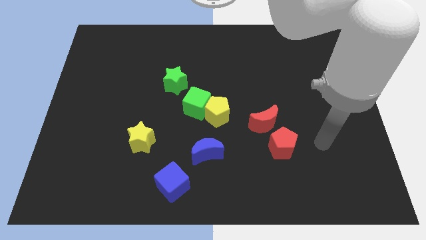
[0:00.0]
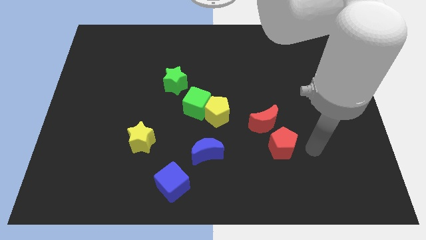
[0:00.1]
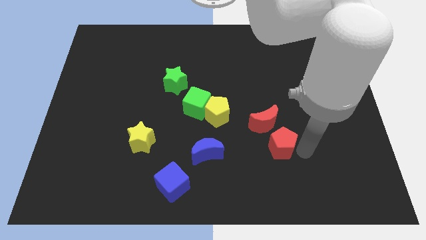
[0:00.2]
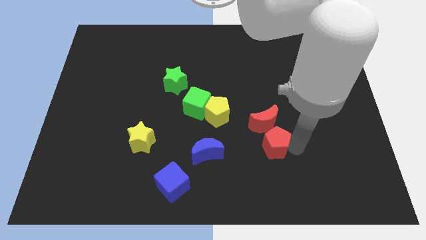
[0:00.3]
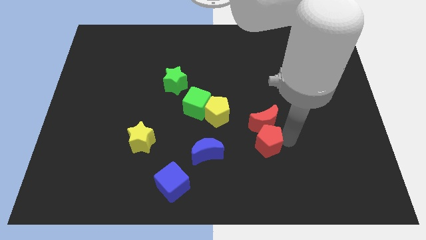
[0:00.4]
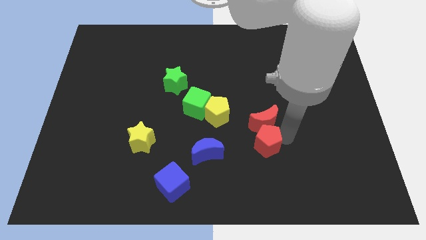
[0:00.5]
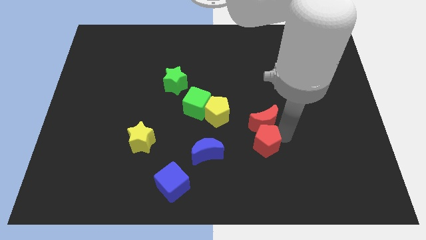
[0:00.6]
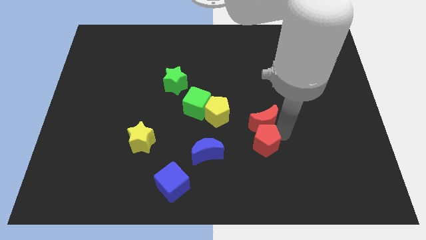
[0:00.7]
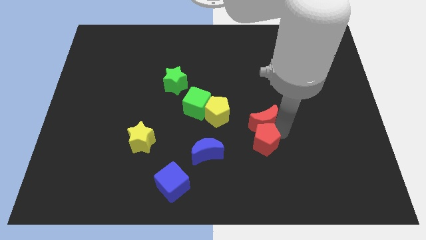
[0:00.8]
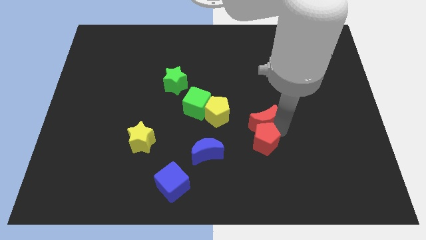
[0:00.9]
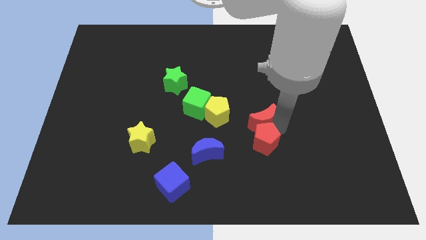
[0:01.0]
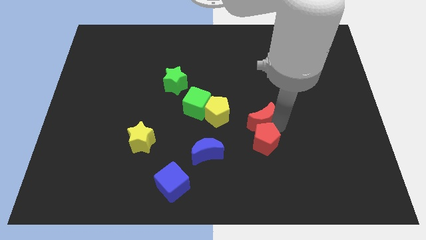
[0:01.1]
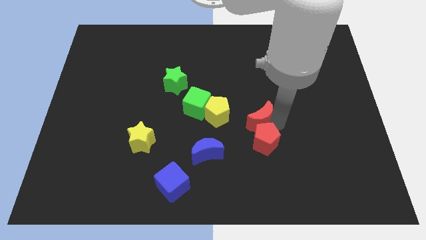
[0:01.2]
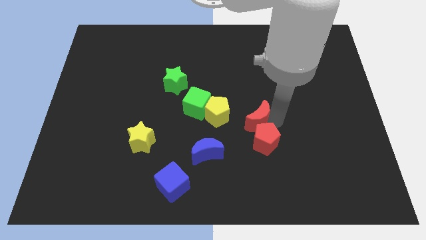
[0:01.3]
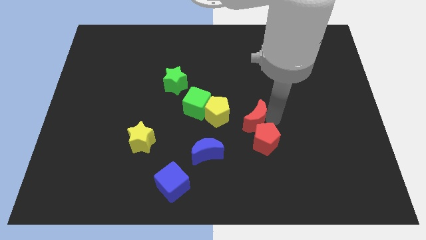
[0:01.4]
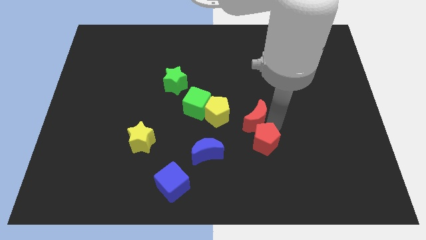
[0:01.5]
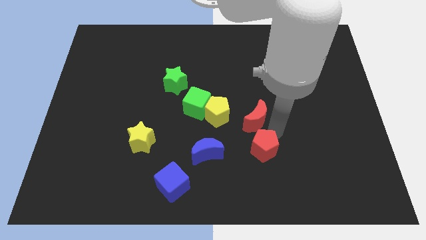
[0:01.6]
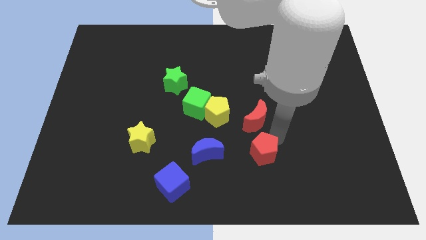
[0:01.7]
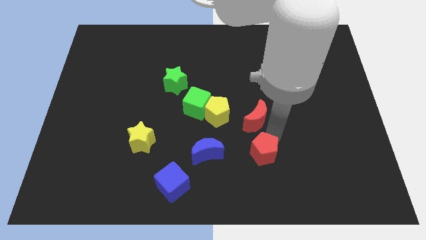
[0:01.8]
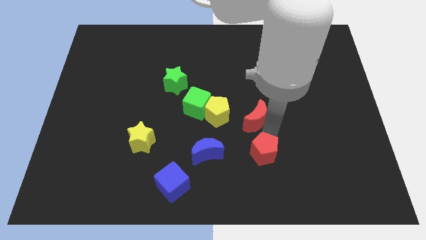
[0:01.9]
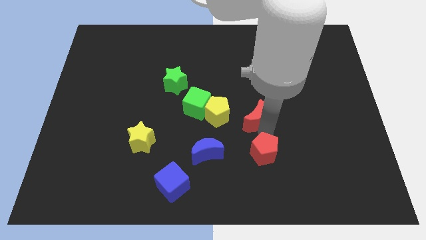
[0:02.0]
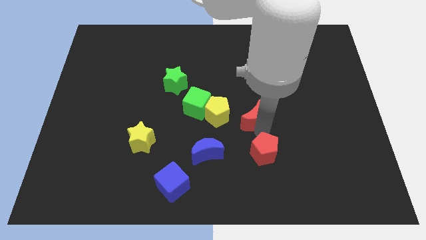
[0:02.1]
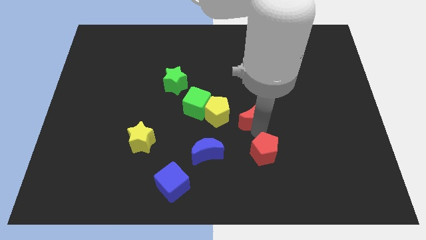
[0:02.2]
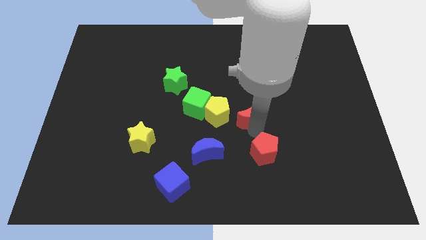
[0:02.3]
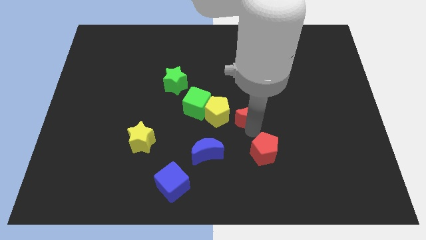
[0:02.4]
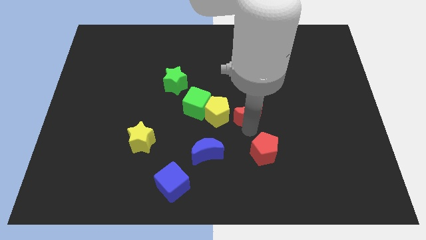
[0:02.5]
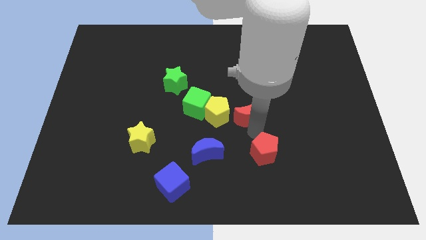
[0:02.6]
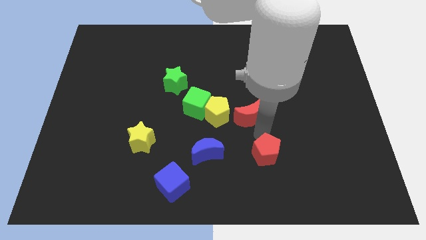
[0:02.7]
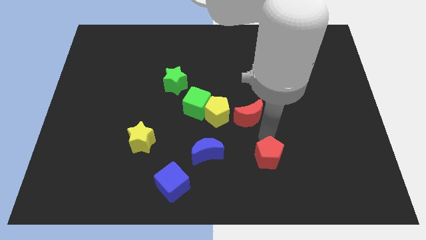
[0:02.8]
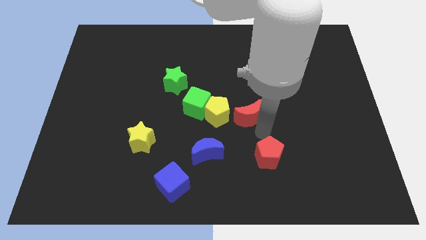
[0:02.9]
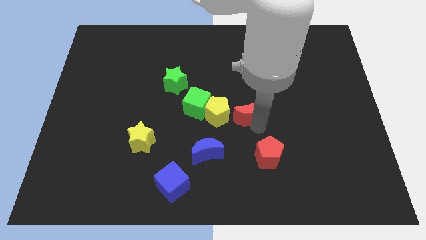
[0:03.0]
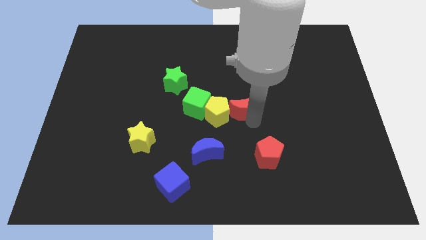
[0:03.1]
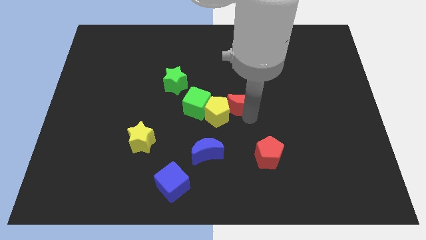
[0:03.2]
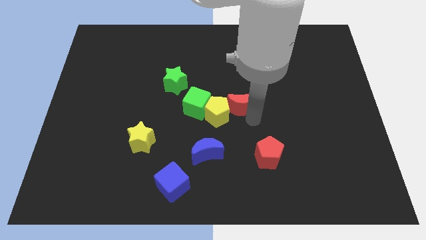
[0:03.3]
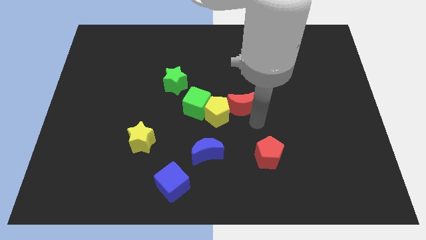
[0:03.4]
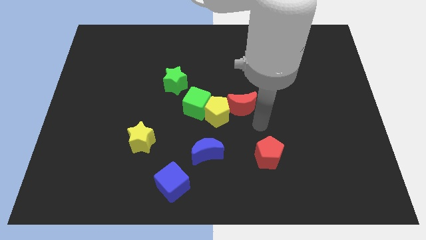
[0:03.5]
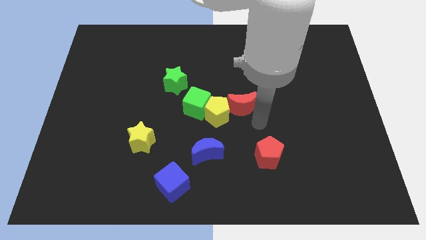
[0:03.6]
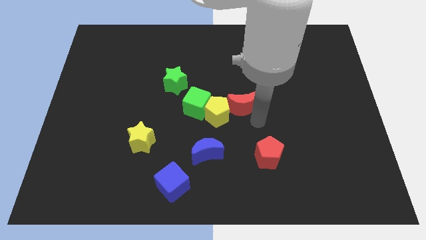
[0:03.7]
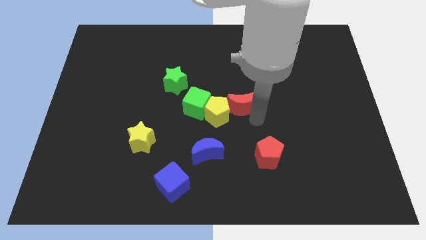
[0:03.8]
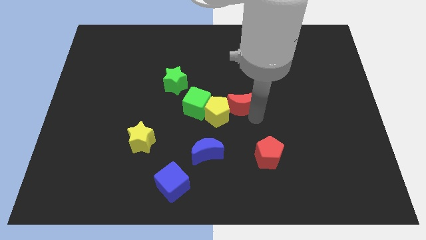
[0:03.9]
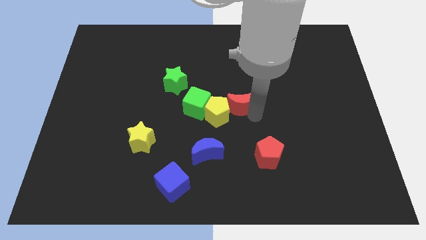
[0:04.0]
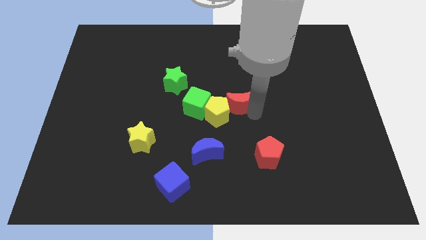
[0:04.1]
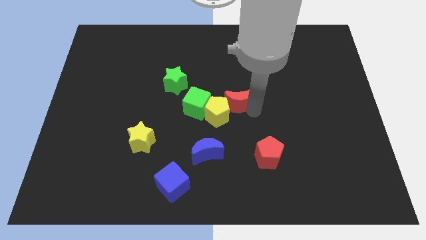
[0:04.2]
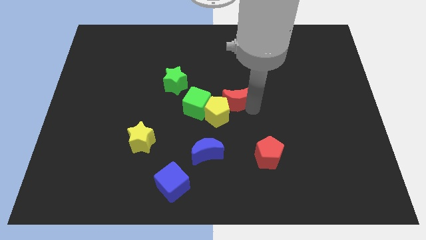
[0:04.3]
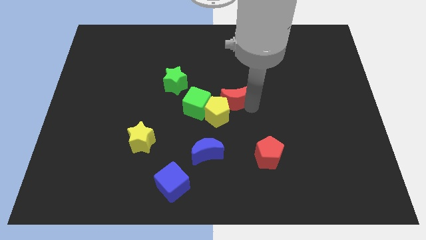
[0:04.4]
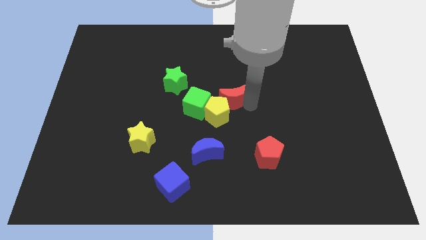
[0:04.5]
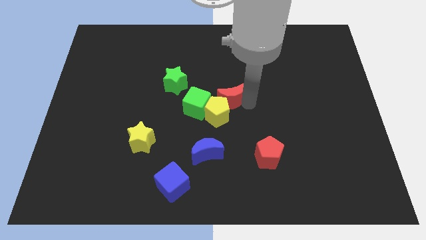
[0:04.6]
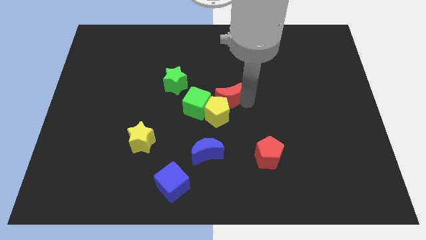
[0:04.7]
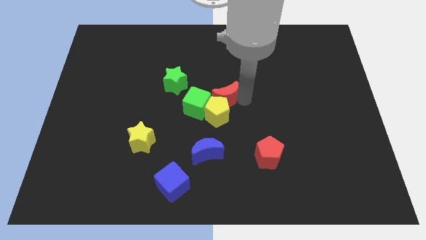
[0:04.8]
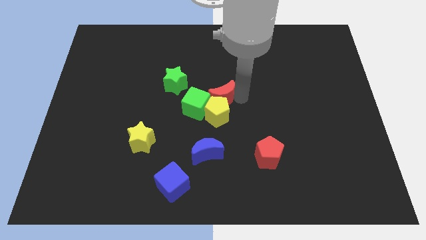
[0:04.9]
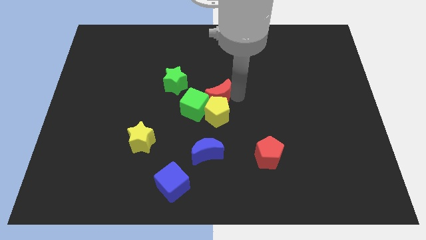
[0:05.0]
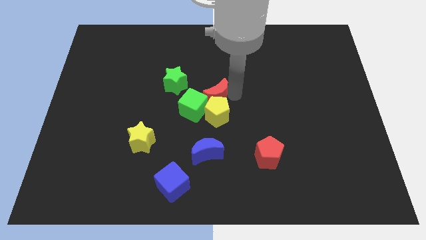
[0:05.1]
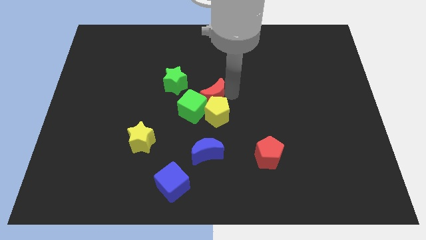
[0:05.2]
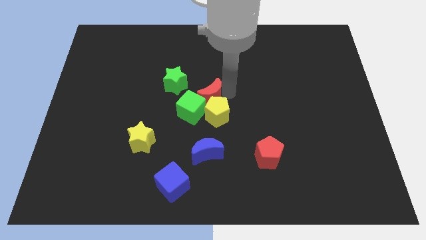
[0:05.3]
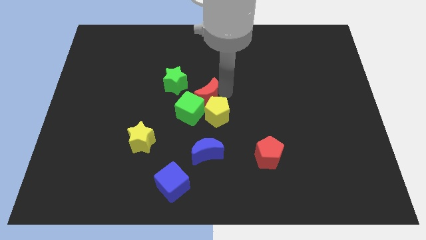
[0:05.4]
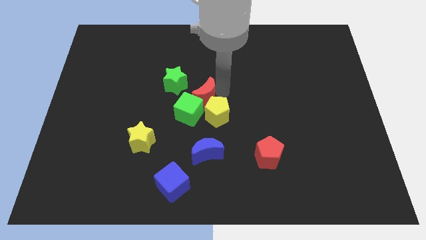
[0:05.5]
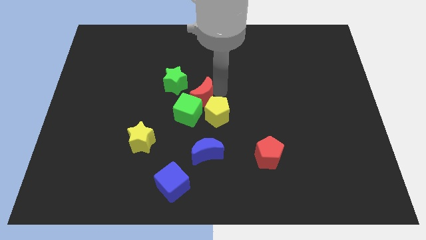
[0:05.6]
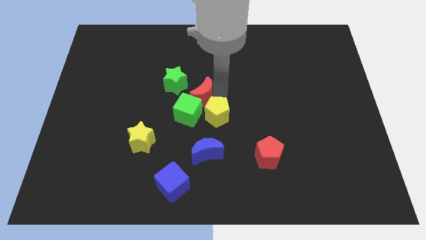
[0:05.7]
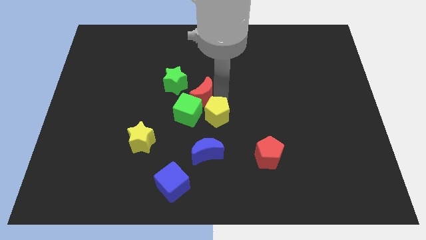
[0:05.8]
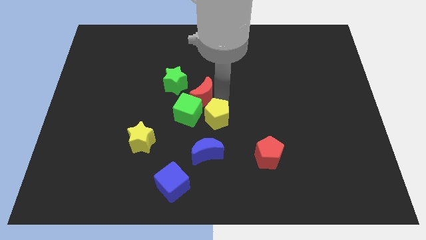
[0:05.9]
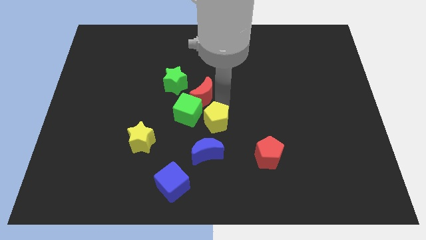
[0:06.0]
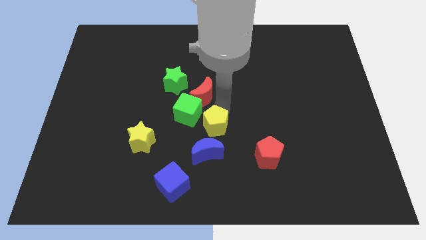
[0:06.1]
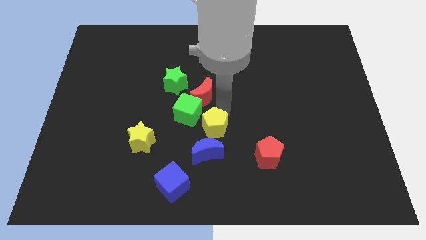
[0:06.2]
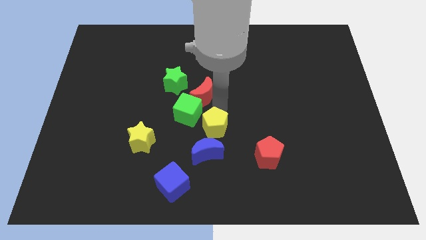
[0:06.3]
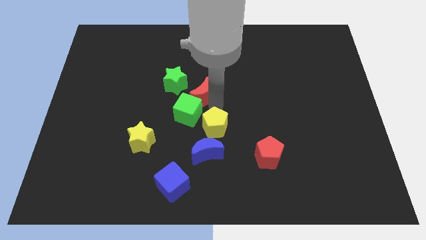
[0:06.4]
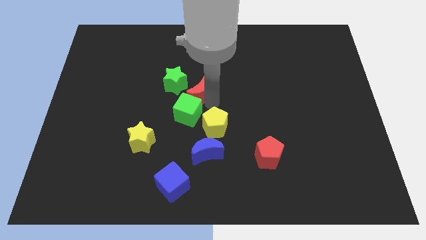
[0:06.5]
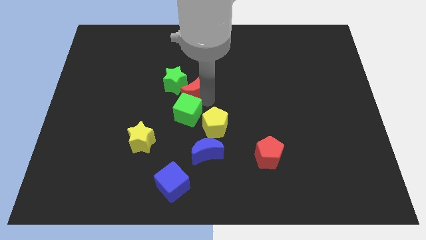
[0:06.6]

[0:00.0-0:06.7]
push the red moon to the green star
